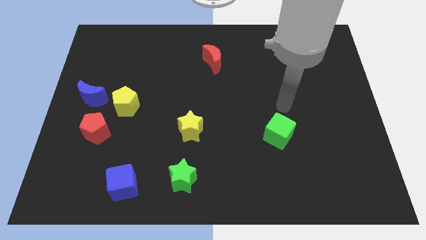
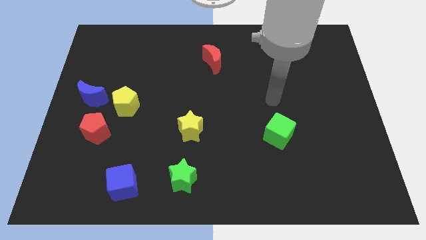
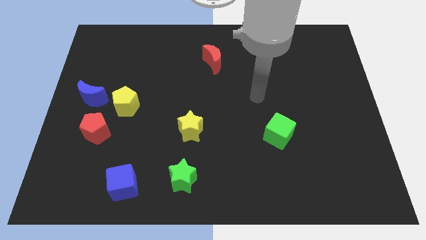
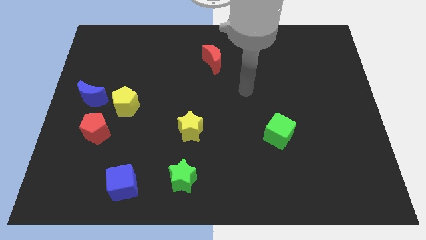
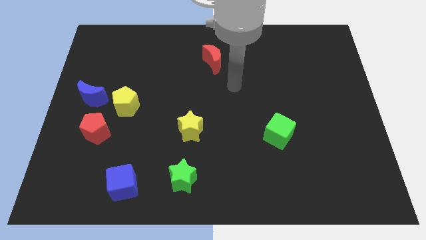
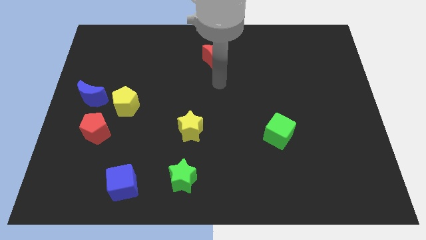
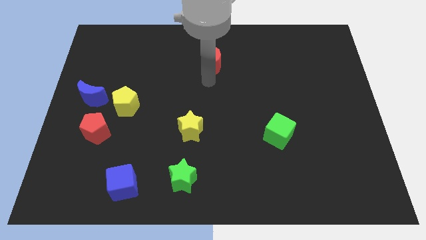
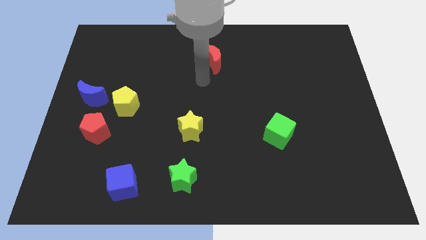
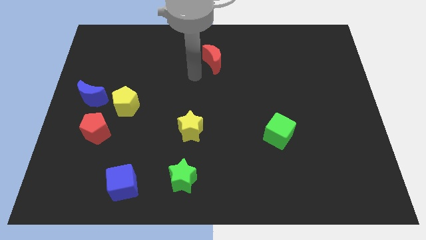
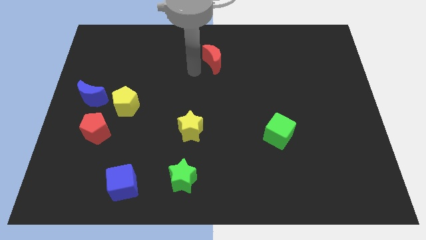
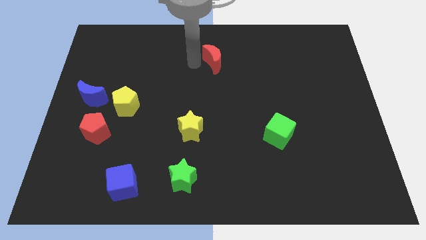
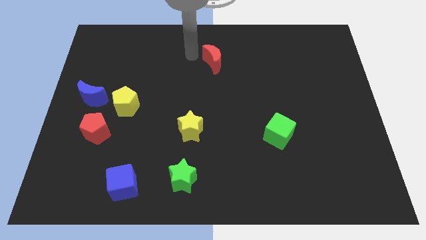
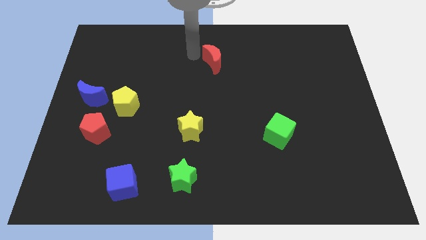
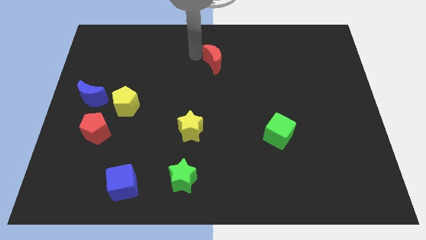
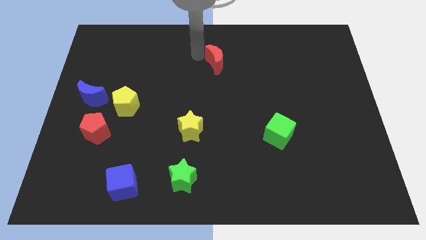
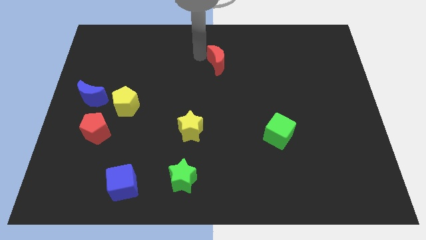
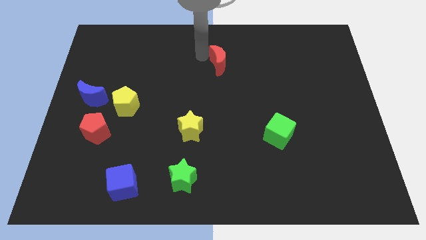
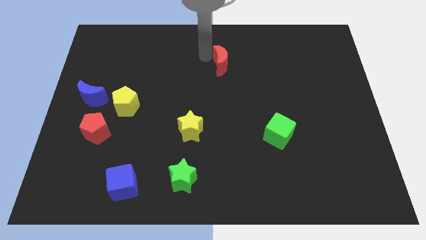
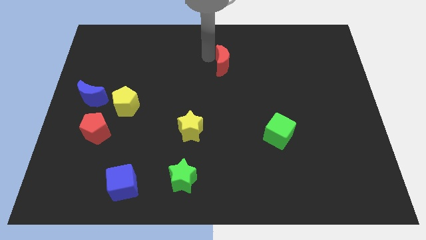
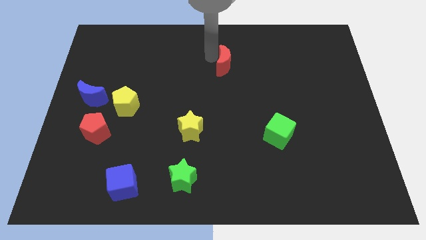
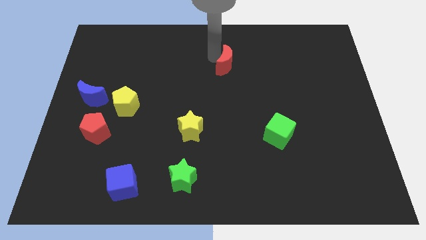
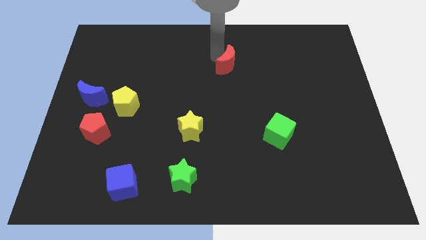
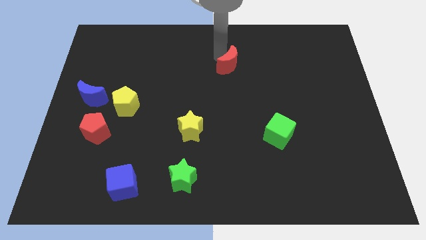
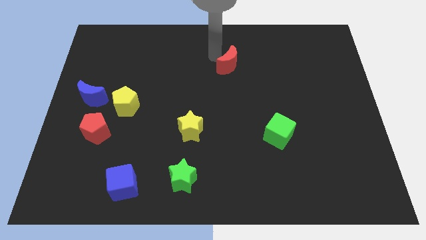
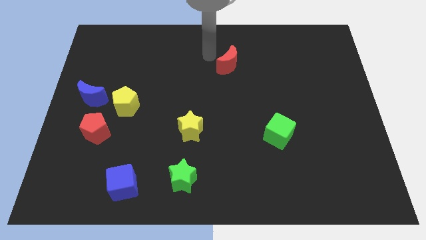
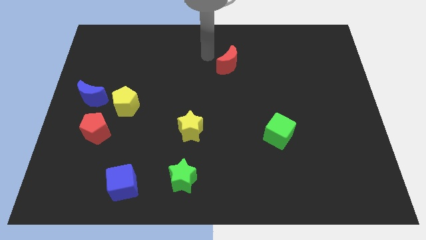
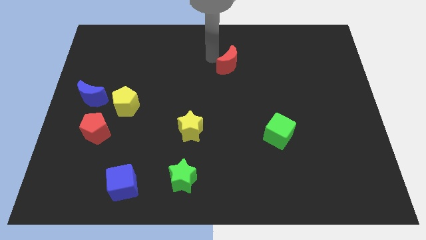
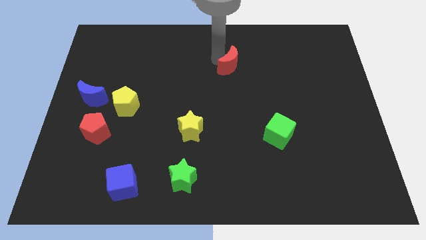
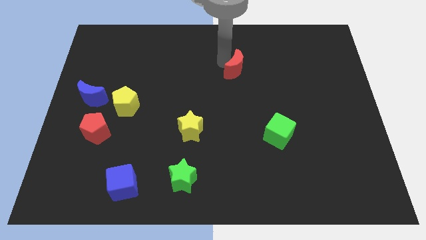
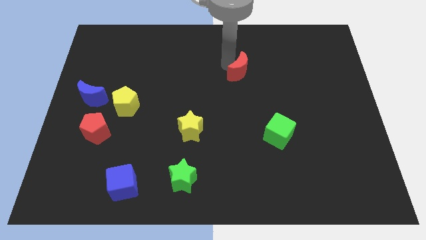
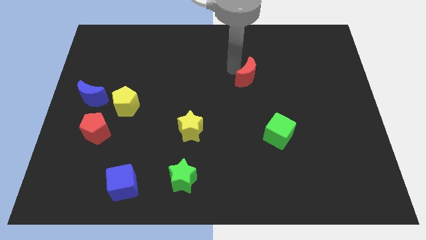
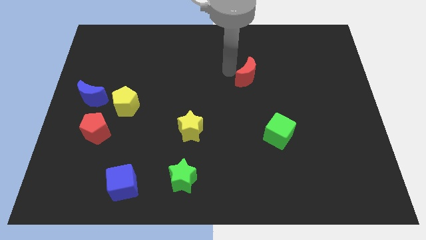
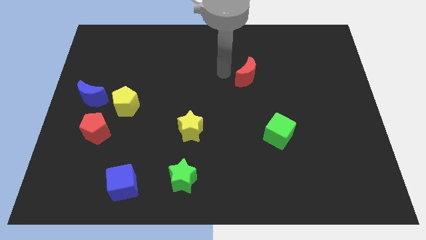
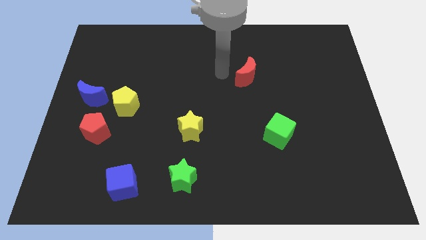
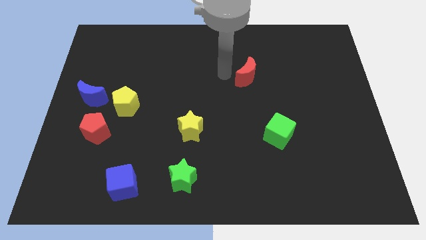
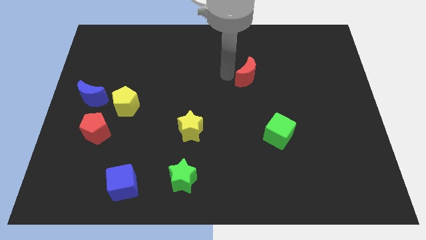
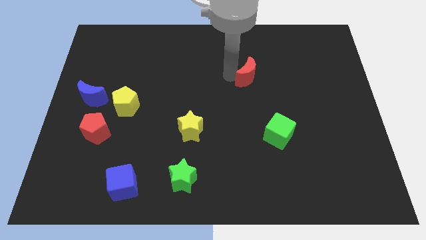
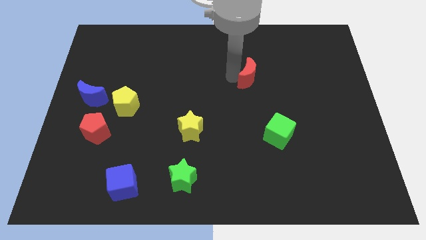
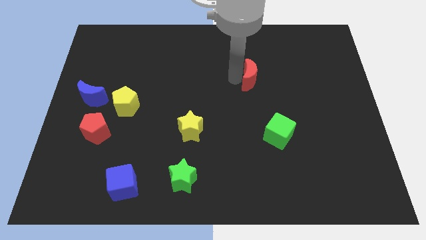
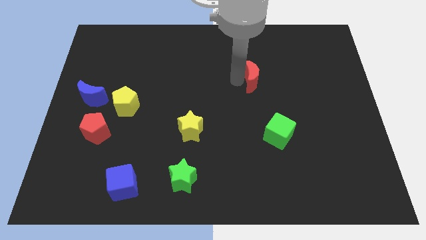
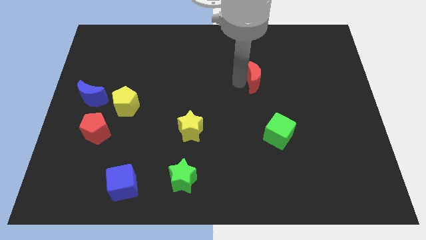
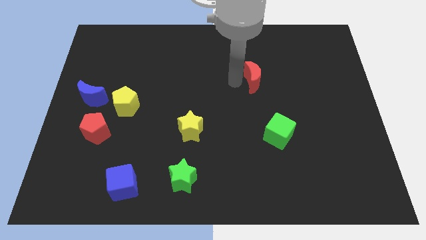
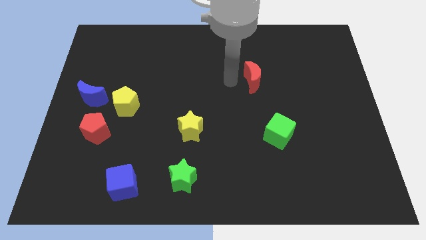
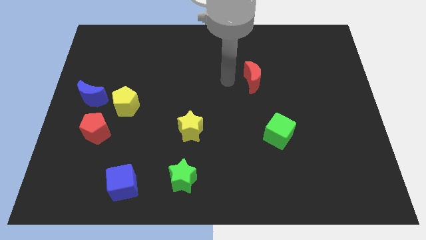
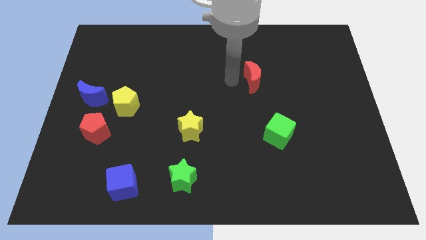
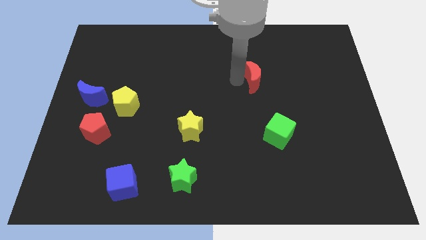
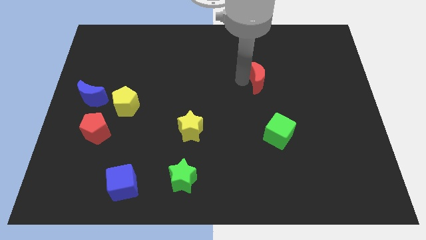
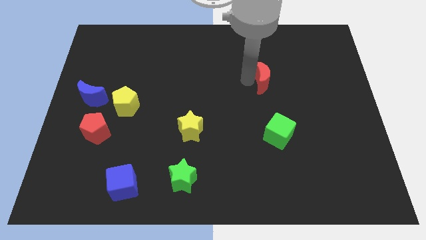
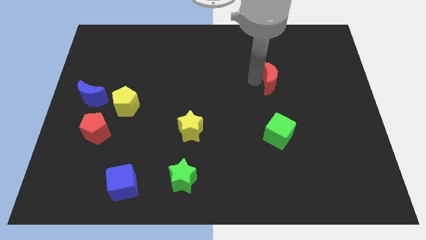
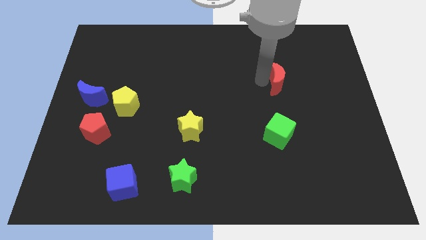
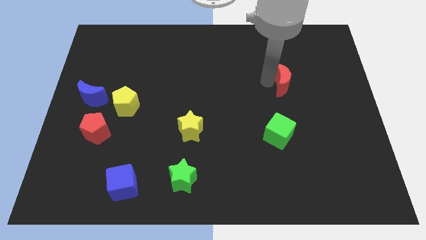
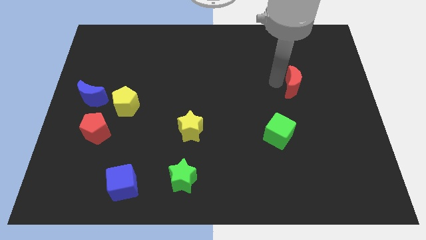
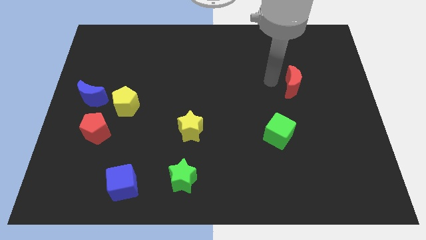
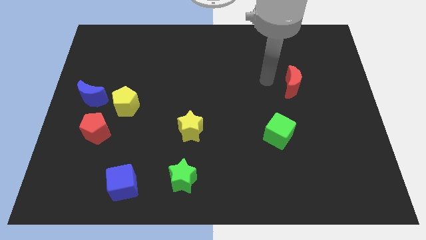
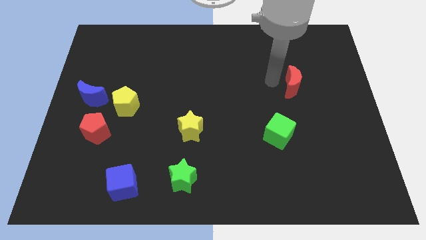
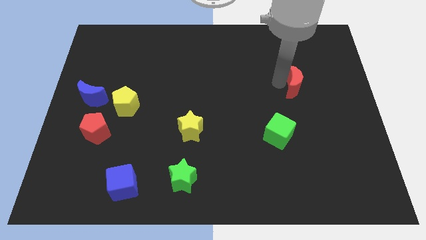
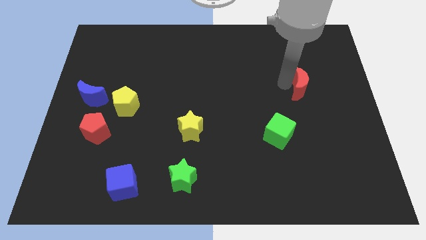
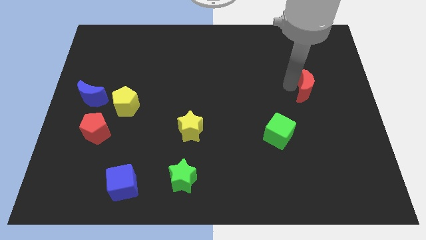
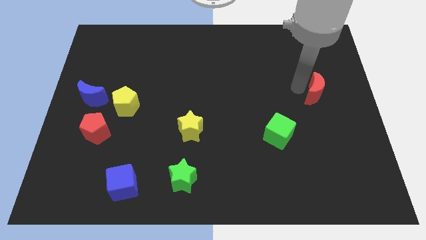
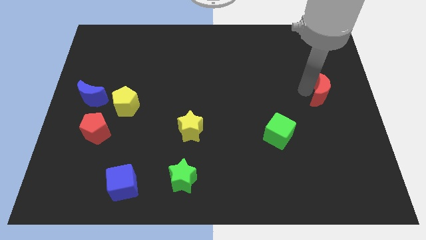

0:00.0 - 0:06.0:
put the red moon to the right side
